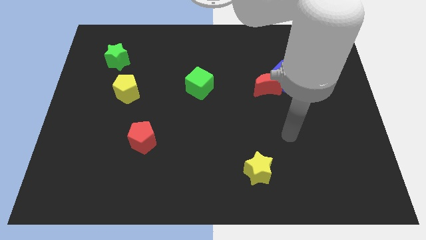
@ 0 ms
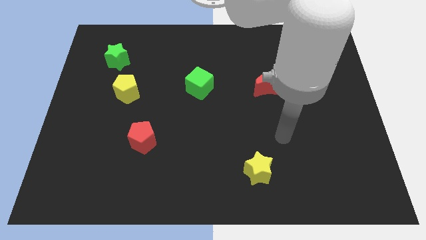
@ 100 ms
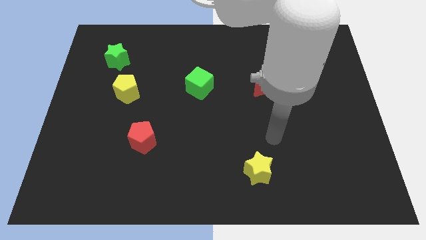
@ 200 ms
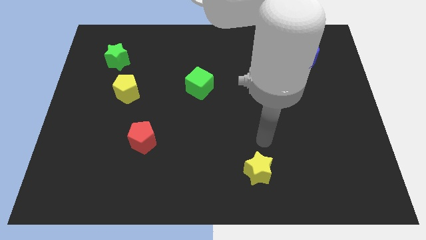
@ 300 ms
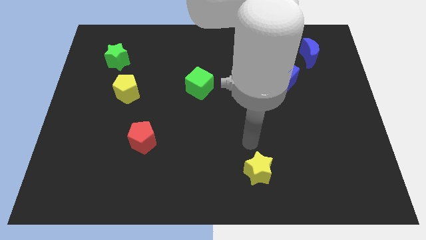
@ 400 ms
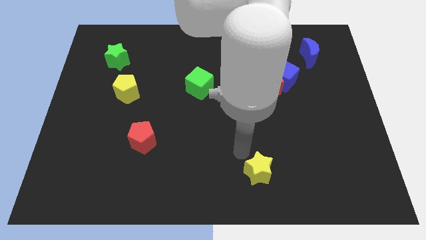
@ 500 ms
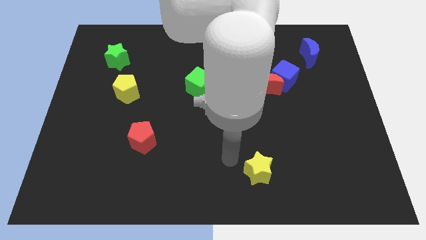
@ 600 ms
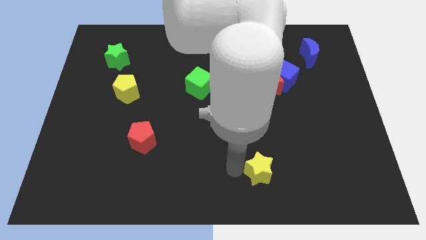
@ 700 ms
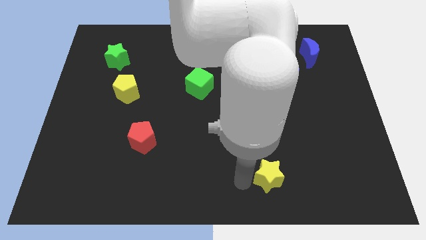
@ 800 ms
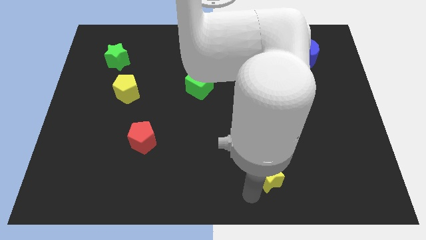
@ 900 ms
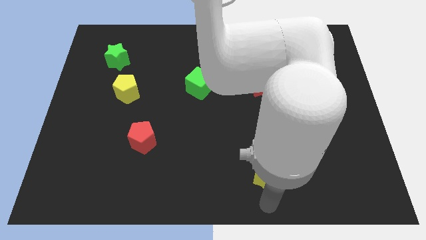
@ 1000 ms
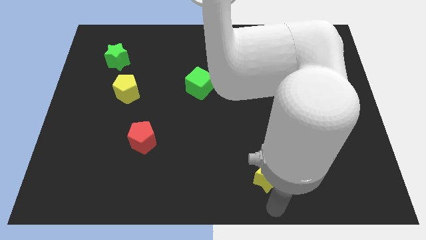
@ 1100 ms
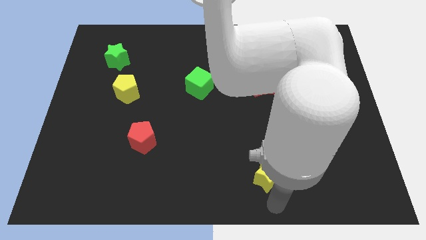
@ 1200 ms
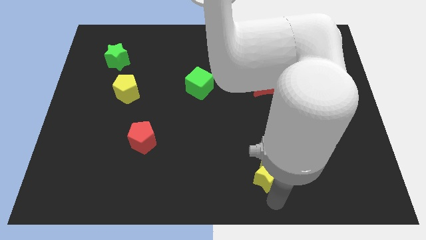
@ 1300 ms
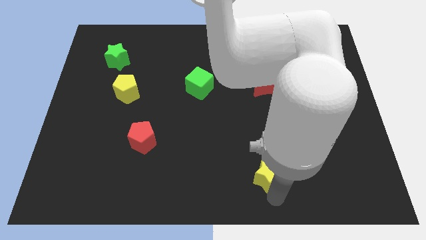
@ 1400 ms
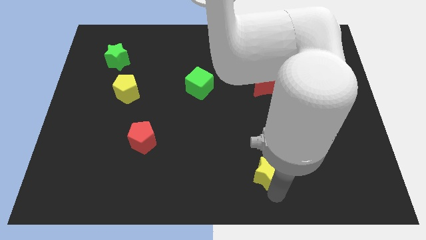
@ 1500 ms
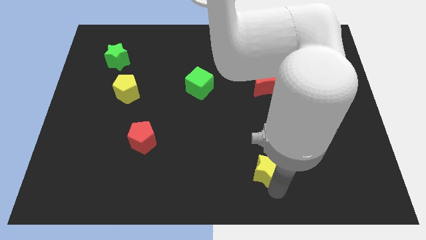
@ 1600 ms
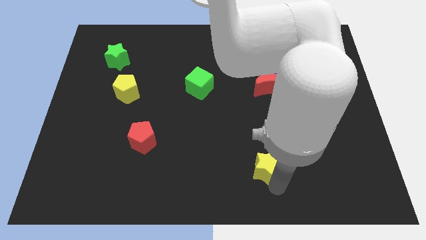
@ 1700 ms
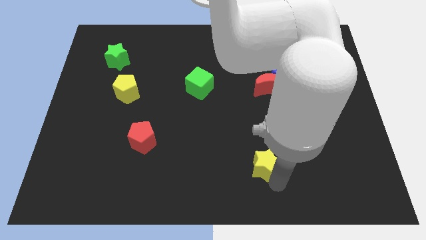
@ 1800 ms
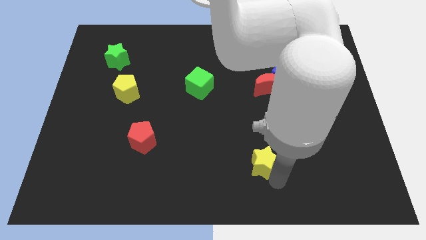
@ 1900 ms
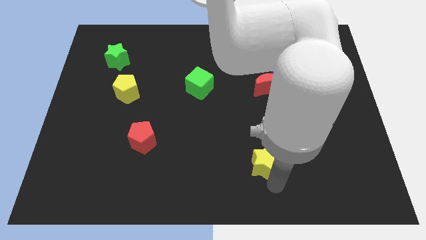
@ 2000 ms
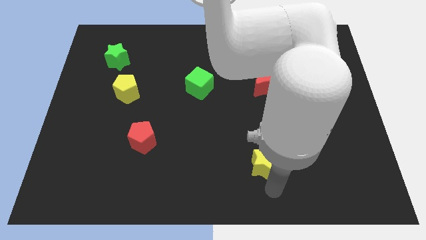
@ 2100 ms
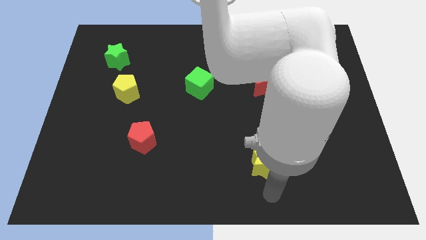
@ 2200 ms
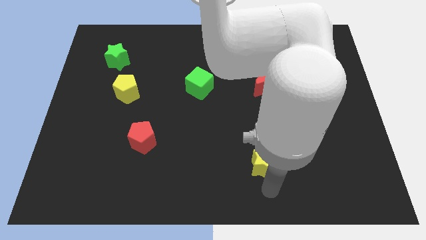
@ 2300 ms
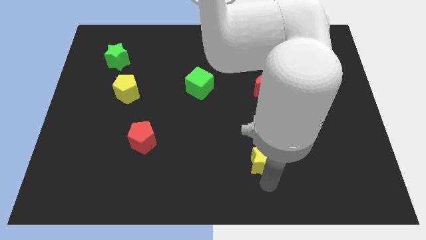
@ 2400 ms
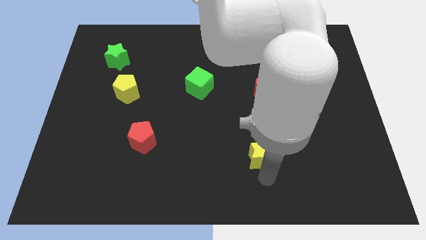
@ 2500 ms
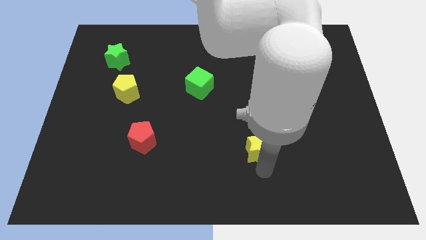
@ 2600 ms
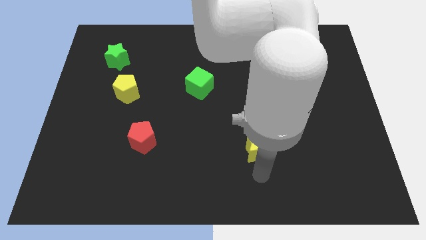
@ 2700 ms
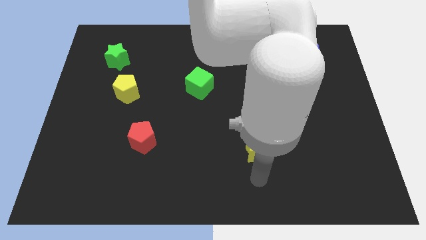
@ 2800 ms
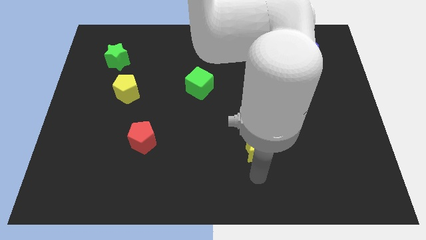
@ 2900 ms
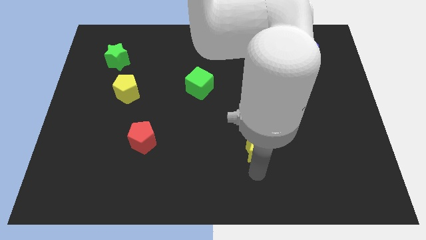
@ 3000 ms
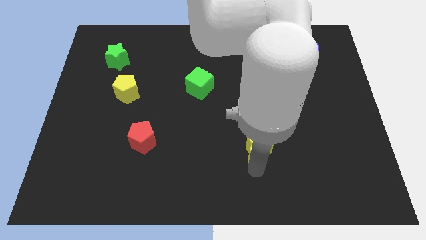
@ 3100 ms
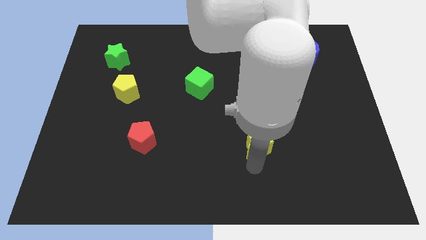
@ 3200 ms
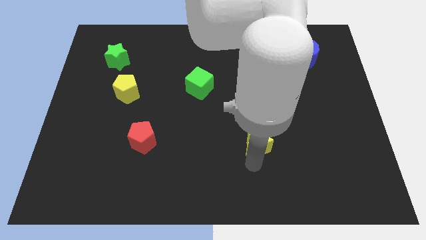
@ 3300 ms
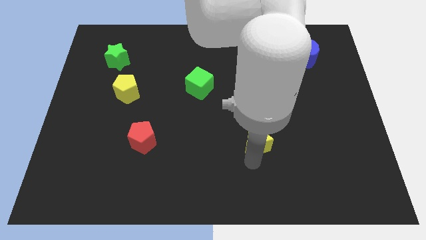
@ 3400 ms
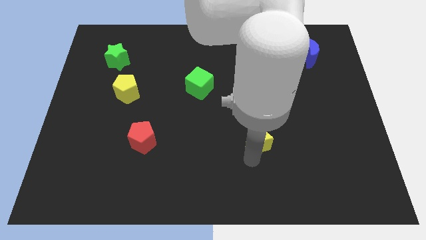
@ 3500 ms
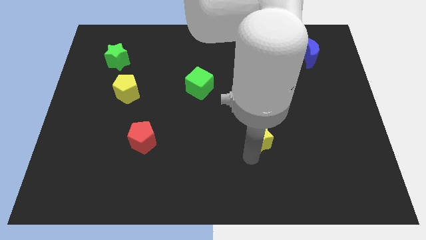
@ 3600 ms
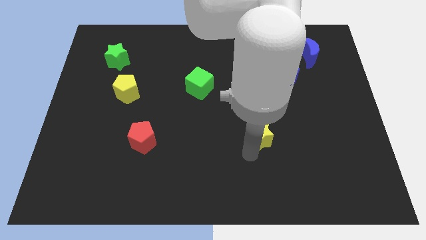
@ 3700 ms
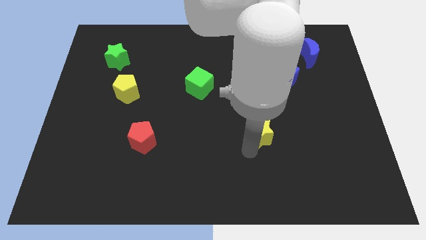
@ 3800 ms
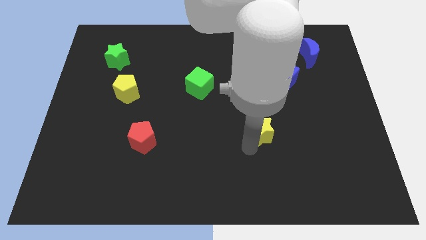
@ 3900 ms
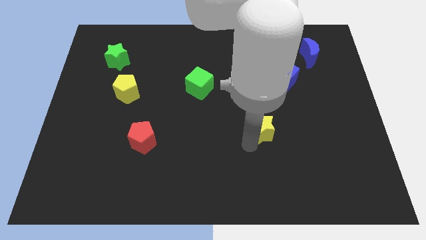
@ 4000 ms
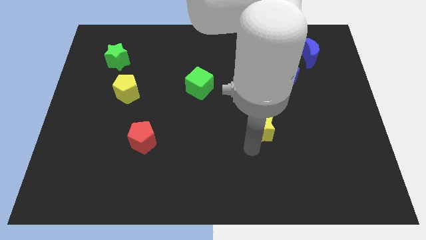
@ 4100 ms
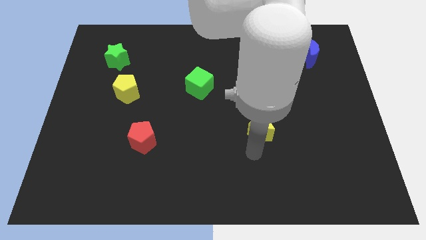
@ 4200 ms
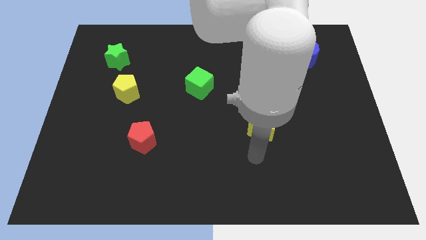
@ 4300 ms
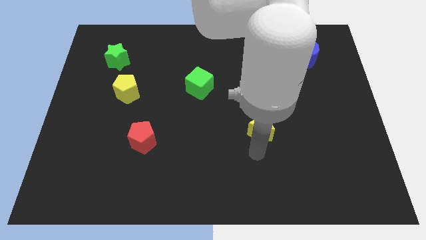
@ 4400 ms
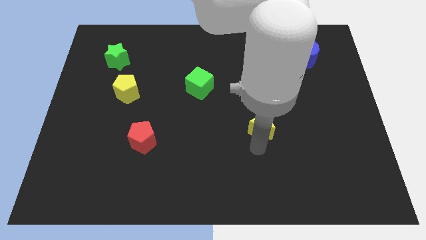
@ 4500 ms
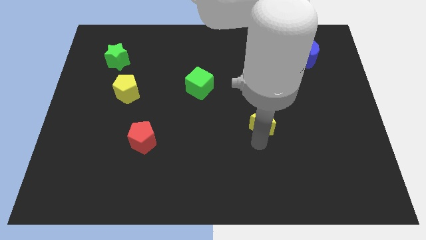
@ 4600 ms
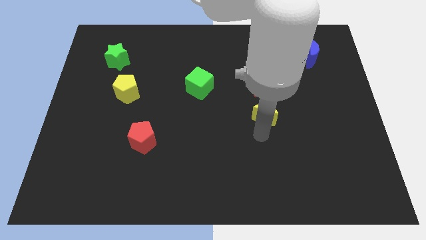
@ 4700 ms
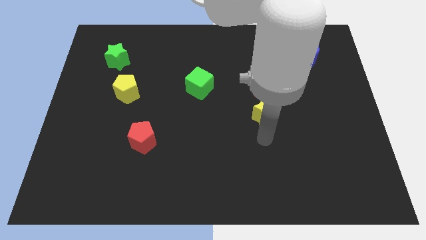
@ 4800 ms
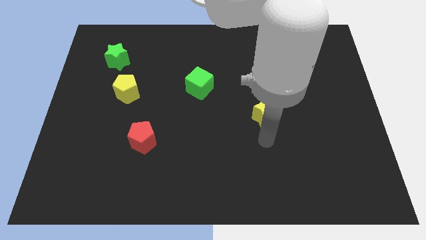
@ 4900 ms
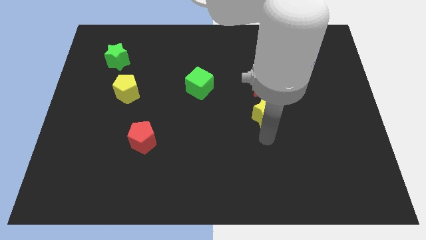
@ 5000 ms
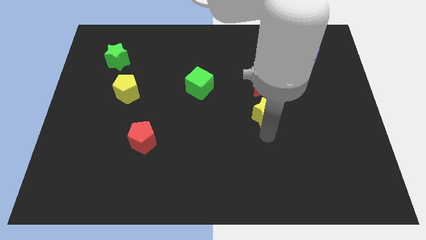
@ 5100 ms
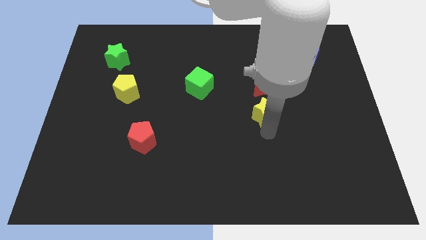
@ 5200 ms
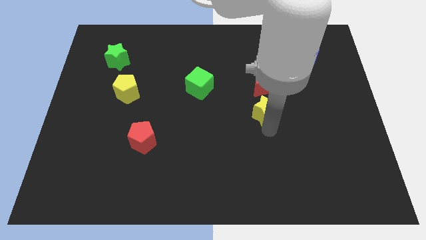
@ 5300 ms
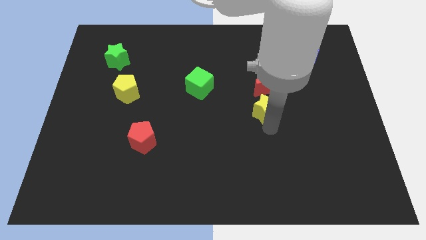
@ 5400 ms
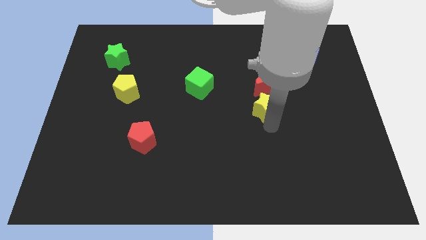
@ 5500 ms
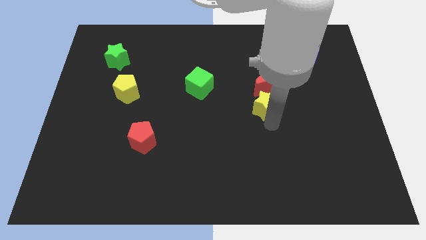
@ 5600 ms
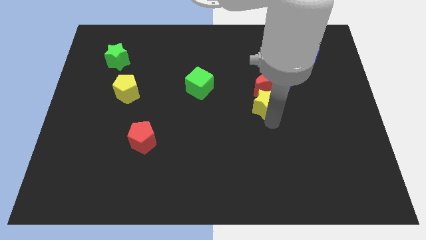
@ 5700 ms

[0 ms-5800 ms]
move the yellow star next to the red moon
